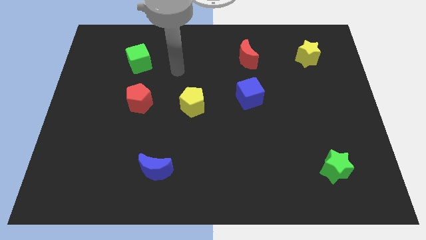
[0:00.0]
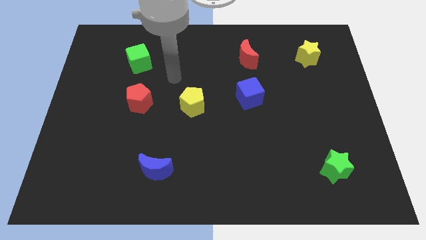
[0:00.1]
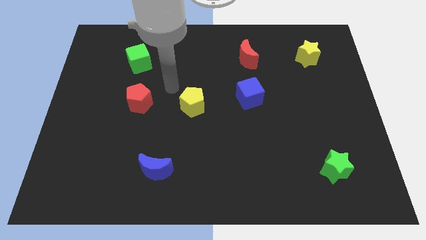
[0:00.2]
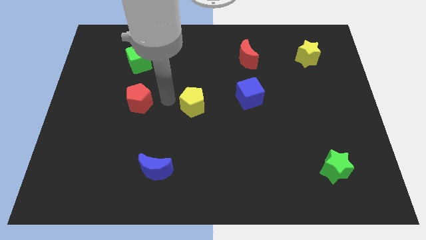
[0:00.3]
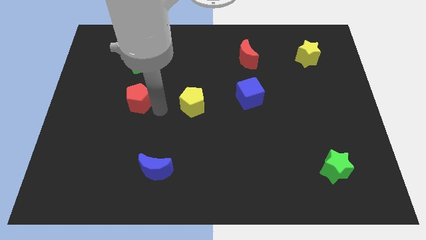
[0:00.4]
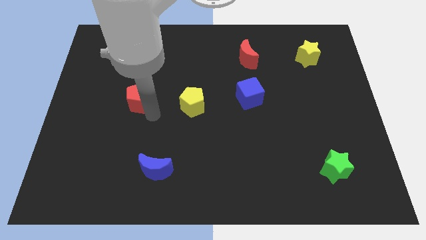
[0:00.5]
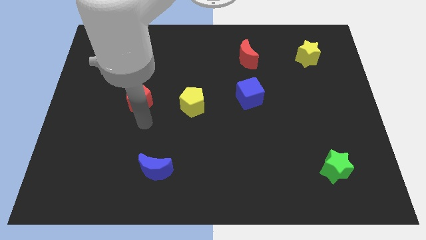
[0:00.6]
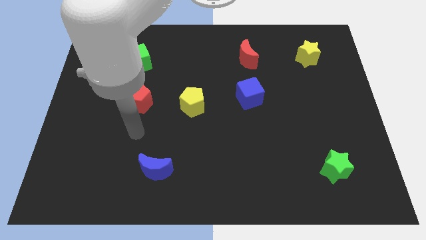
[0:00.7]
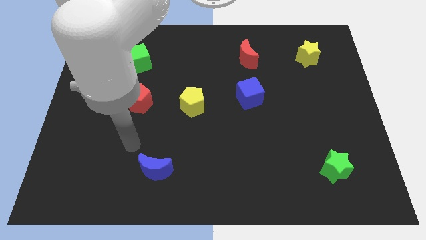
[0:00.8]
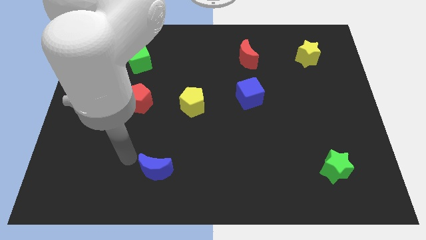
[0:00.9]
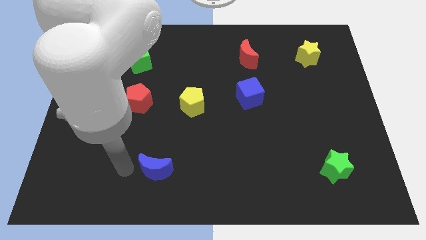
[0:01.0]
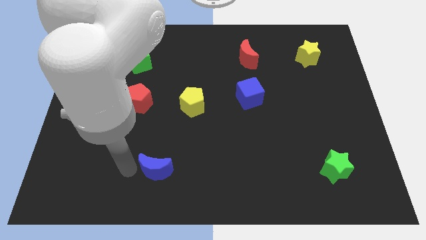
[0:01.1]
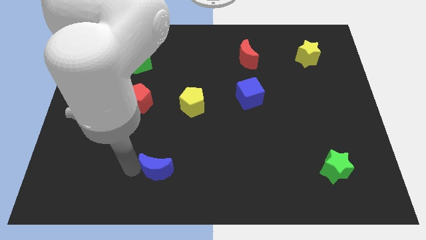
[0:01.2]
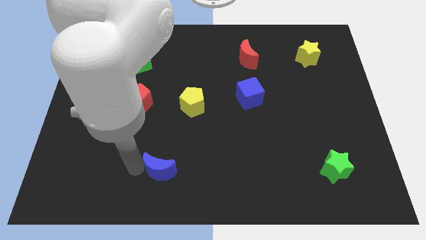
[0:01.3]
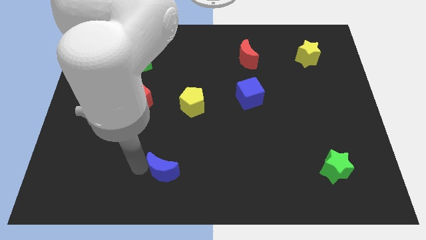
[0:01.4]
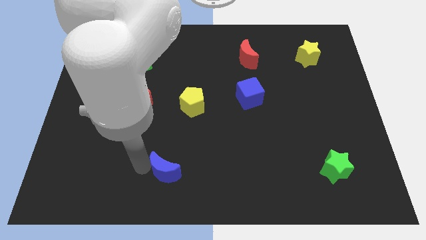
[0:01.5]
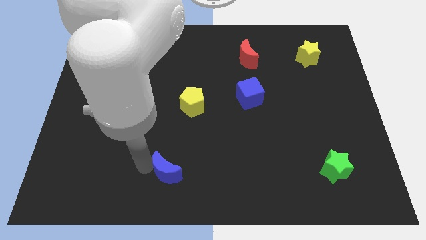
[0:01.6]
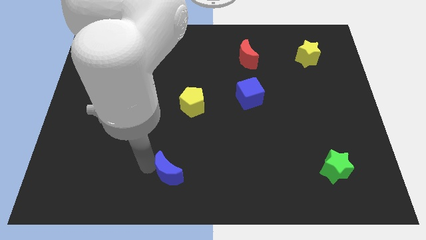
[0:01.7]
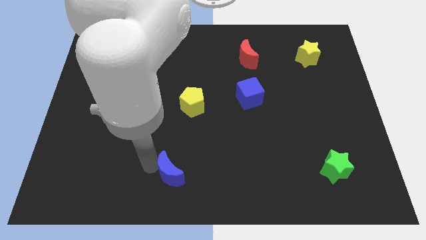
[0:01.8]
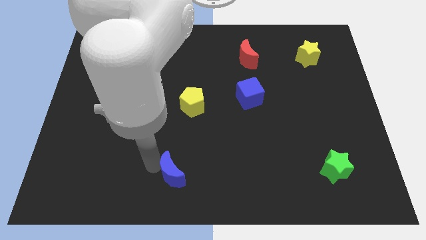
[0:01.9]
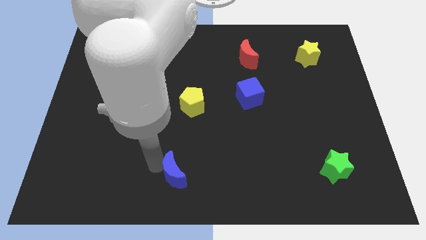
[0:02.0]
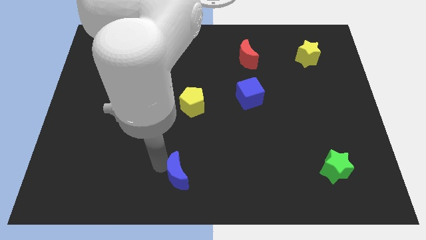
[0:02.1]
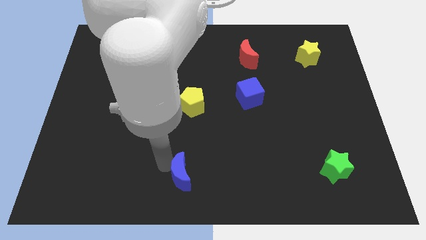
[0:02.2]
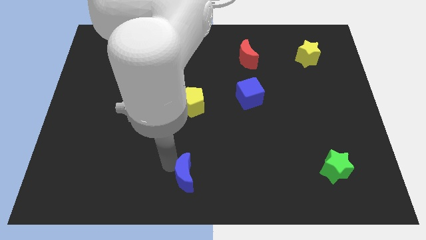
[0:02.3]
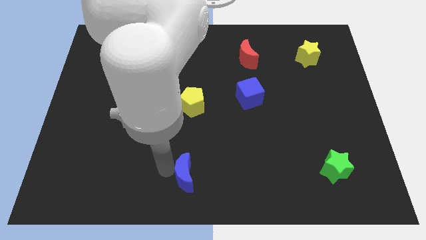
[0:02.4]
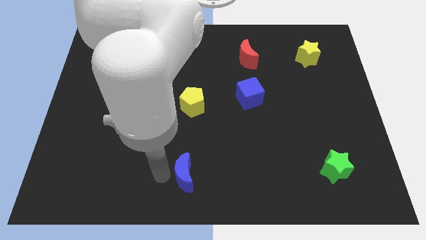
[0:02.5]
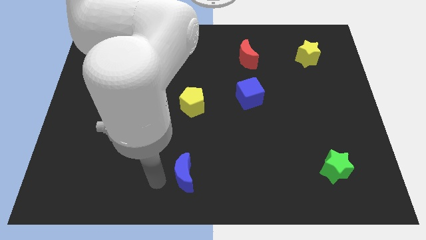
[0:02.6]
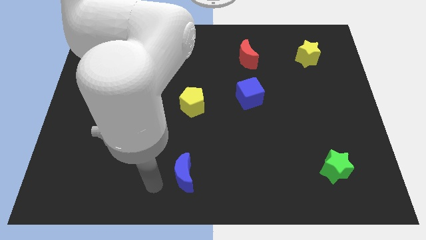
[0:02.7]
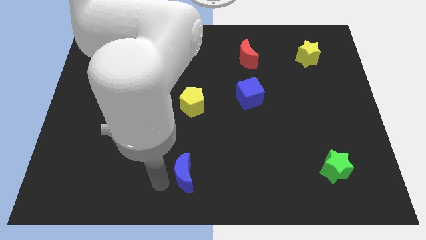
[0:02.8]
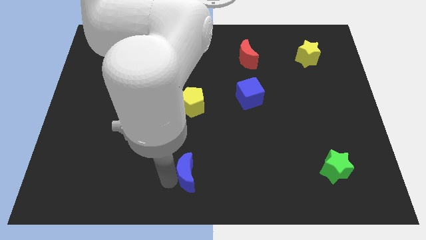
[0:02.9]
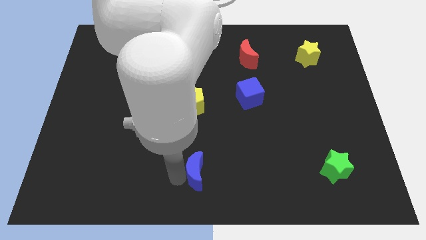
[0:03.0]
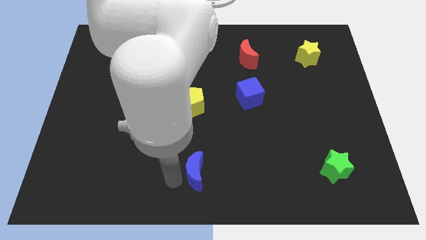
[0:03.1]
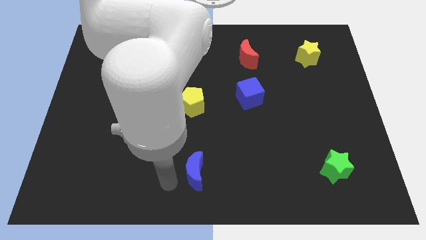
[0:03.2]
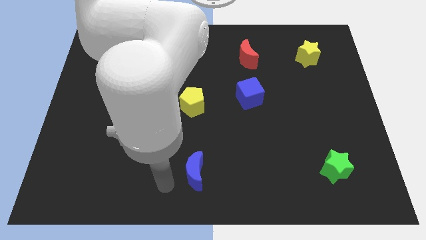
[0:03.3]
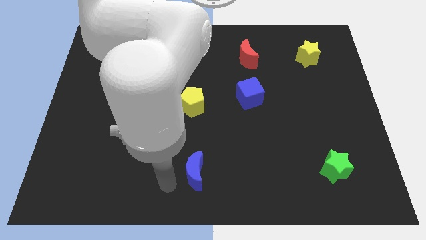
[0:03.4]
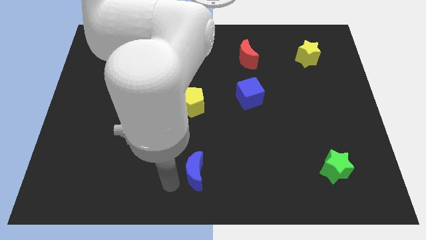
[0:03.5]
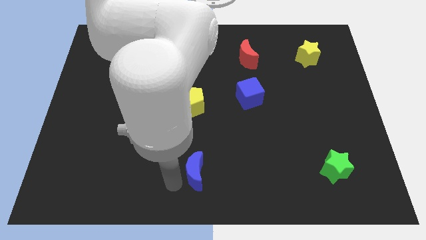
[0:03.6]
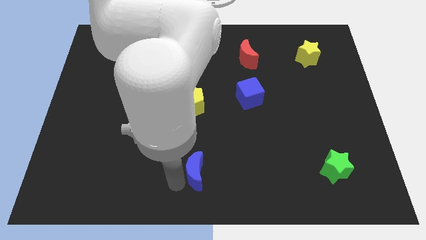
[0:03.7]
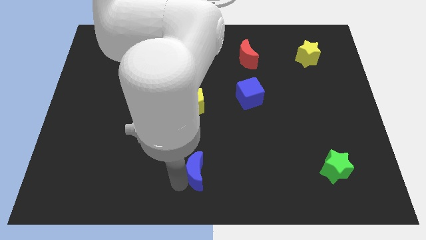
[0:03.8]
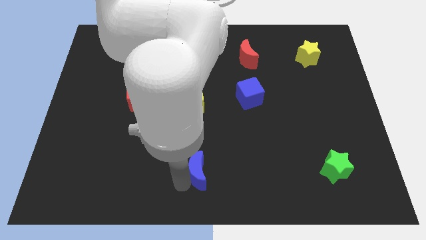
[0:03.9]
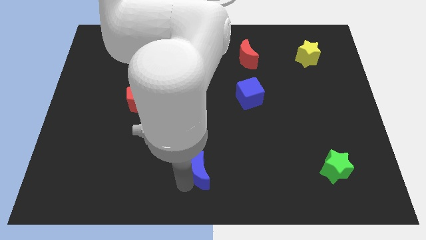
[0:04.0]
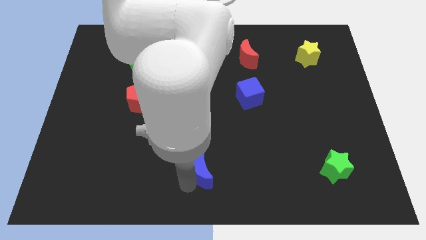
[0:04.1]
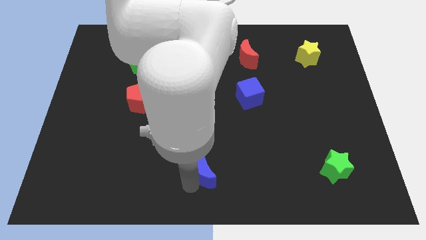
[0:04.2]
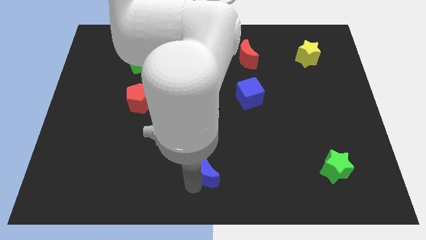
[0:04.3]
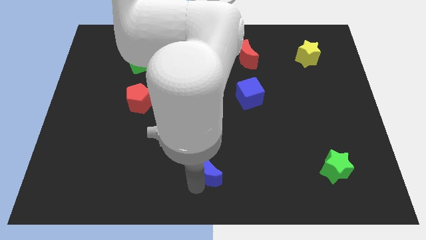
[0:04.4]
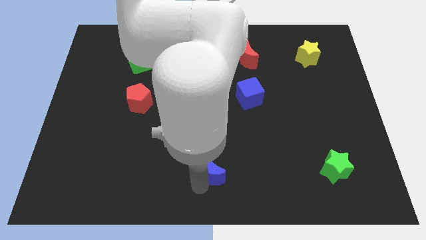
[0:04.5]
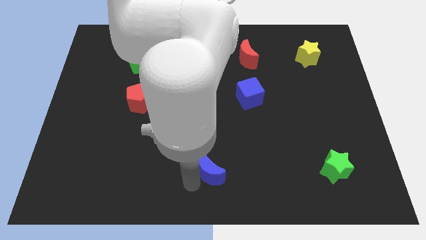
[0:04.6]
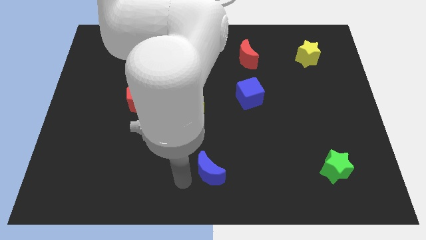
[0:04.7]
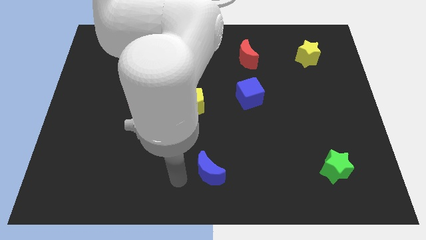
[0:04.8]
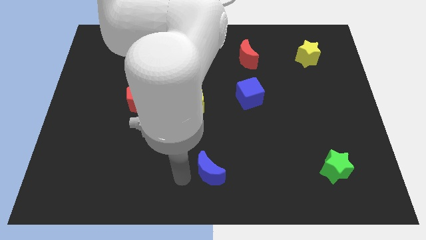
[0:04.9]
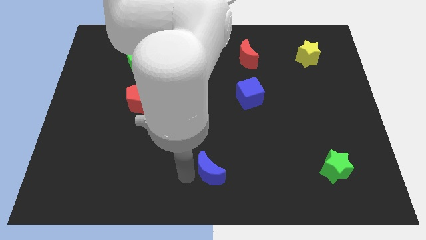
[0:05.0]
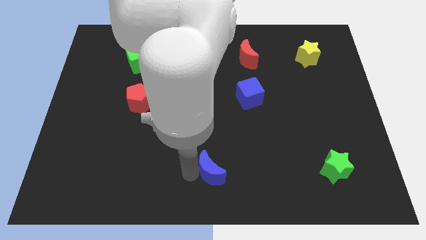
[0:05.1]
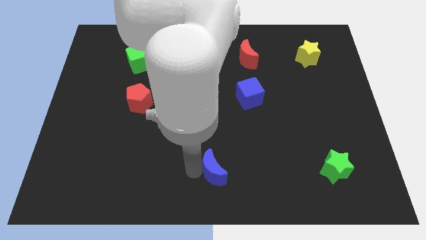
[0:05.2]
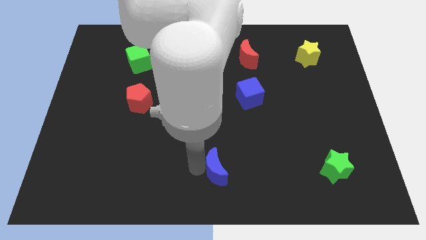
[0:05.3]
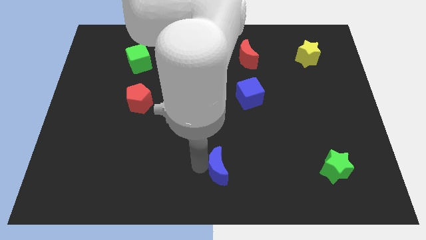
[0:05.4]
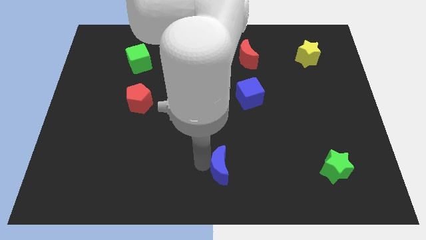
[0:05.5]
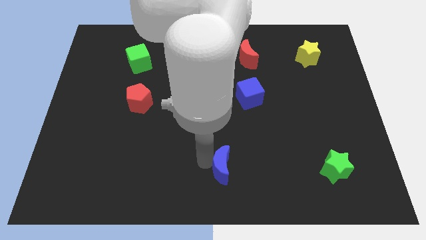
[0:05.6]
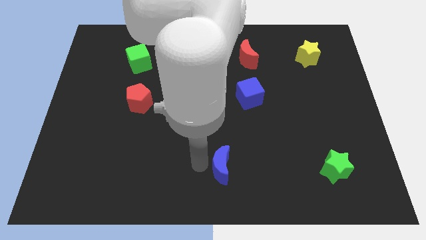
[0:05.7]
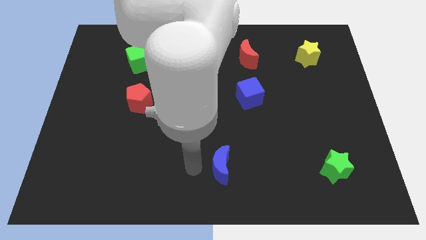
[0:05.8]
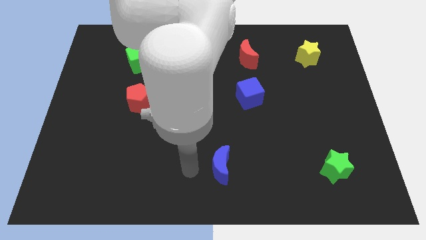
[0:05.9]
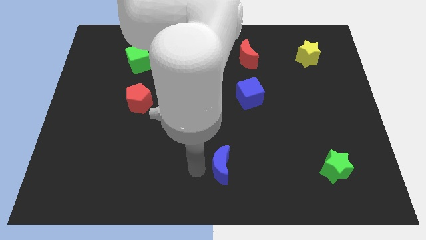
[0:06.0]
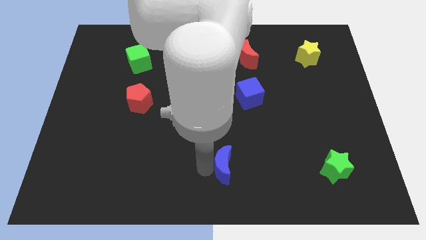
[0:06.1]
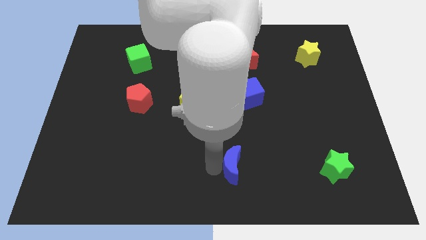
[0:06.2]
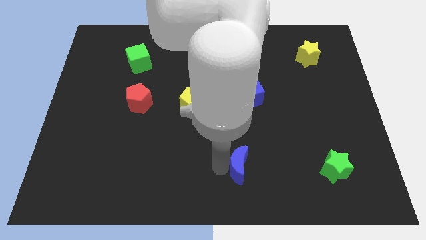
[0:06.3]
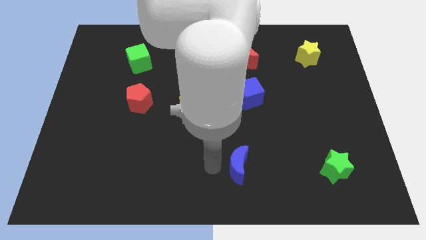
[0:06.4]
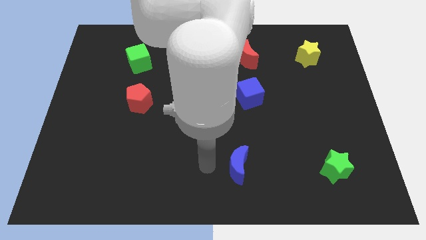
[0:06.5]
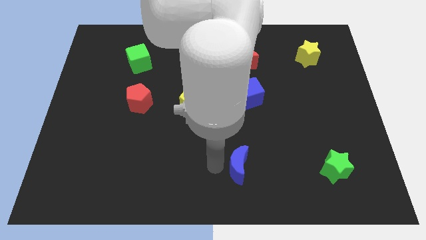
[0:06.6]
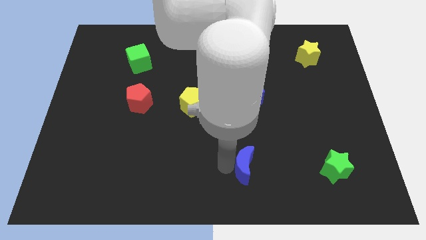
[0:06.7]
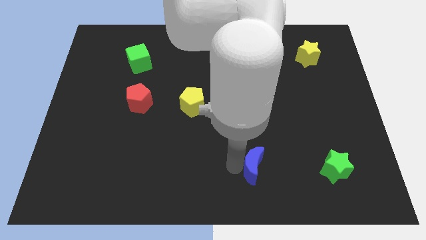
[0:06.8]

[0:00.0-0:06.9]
move the blue moon to the right

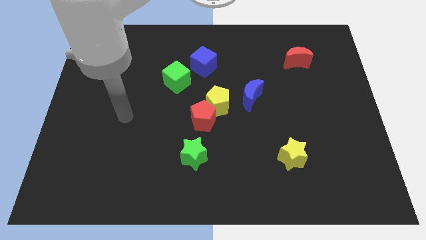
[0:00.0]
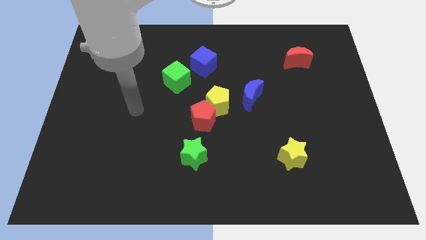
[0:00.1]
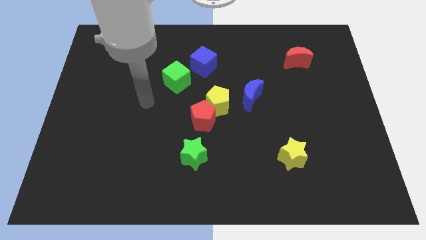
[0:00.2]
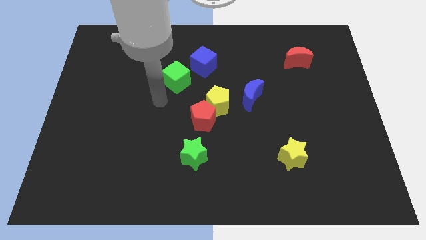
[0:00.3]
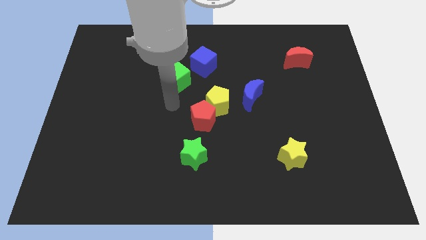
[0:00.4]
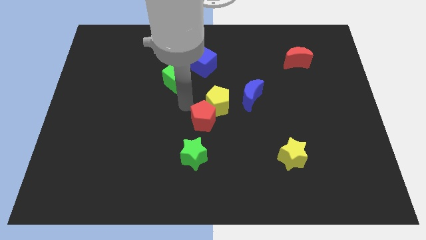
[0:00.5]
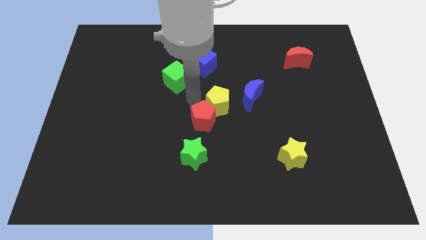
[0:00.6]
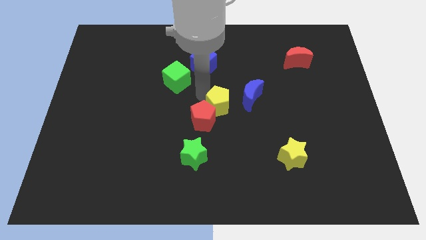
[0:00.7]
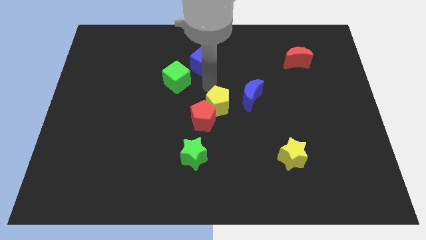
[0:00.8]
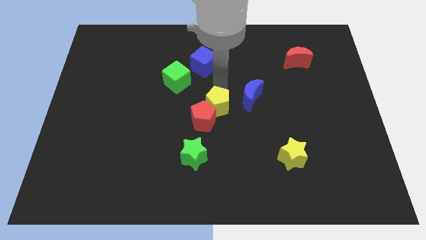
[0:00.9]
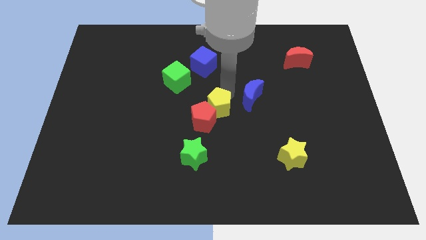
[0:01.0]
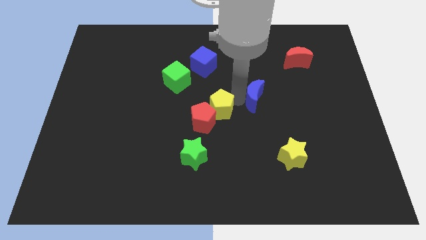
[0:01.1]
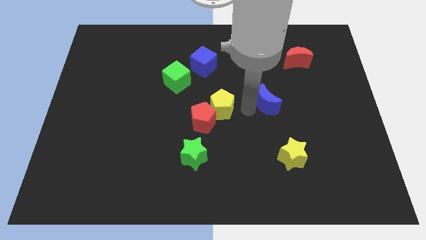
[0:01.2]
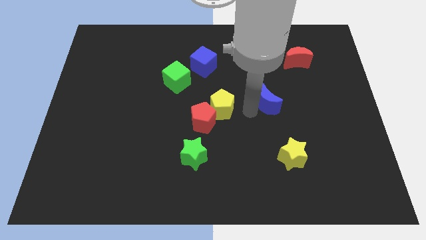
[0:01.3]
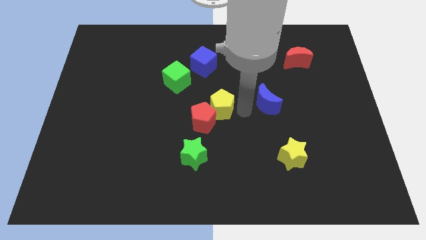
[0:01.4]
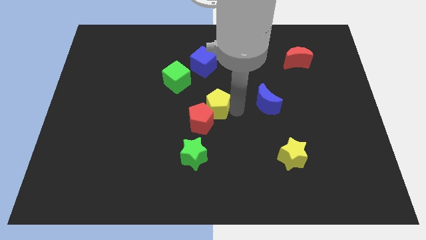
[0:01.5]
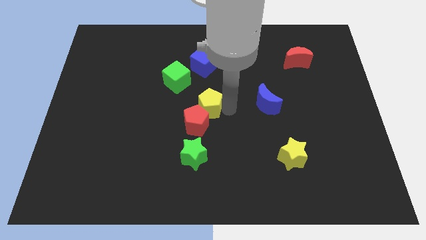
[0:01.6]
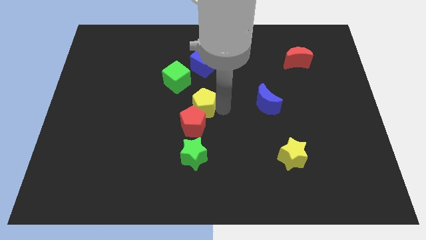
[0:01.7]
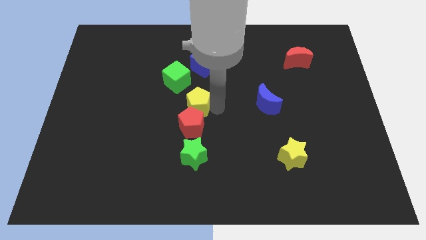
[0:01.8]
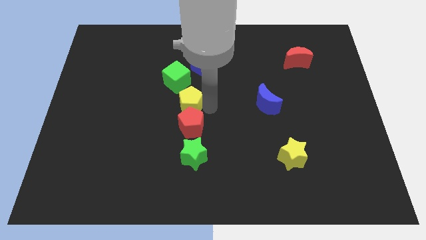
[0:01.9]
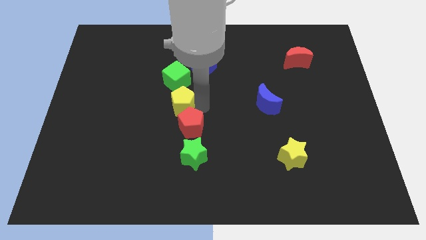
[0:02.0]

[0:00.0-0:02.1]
push the yellow pentagon left somewhat
